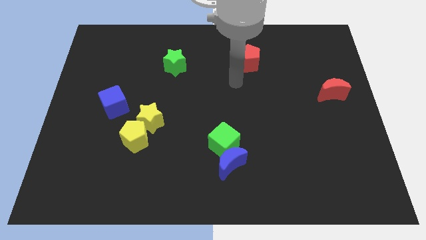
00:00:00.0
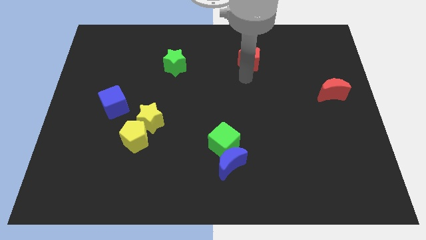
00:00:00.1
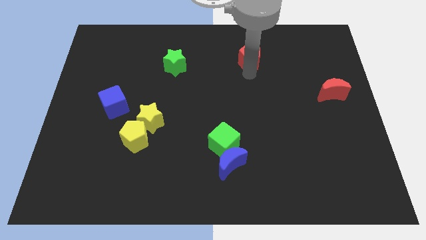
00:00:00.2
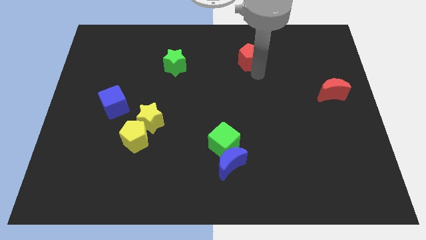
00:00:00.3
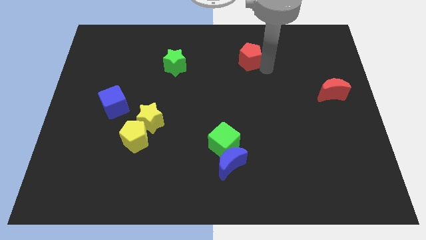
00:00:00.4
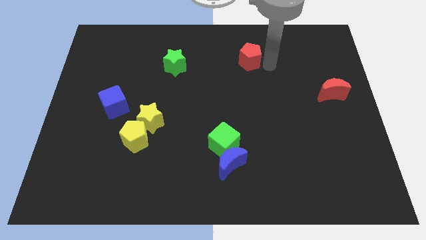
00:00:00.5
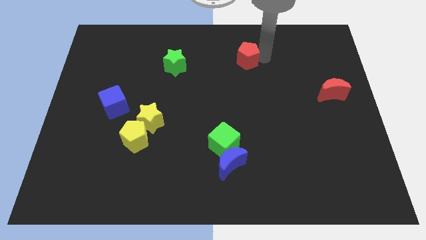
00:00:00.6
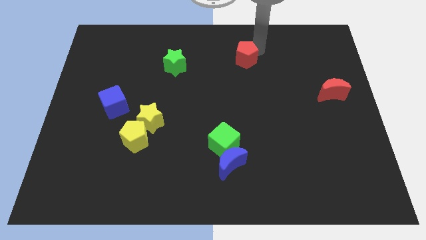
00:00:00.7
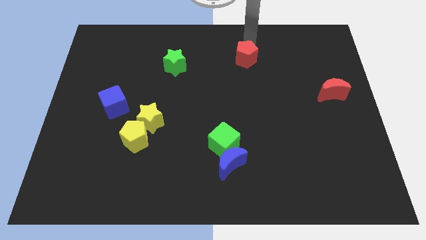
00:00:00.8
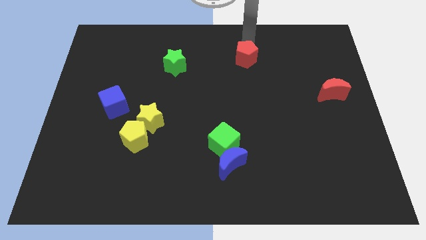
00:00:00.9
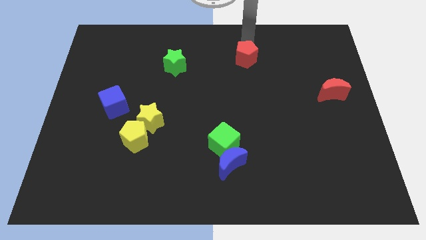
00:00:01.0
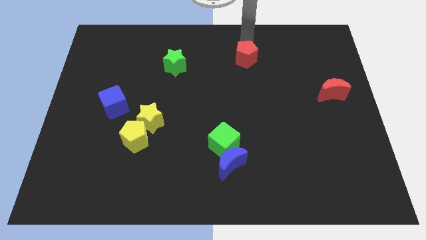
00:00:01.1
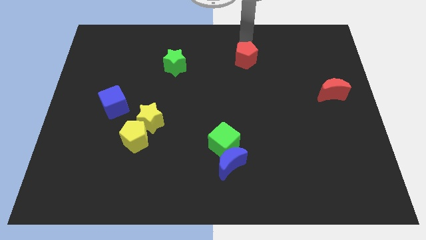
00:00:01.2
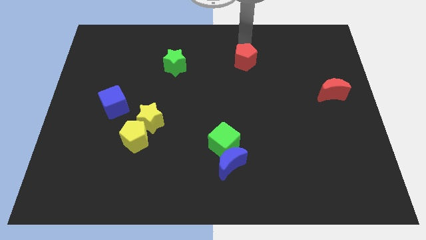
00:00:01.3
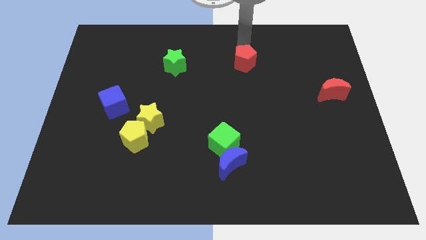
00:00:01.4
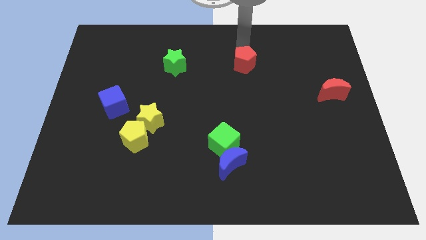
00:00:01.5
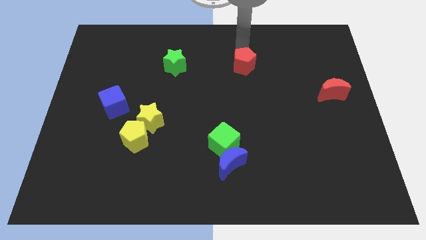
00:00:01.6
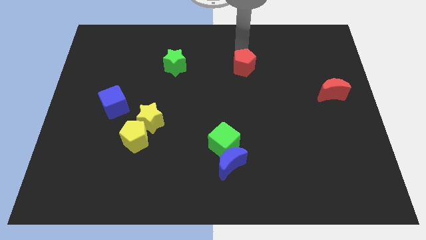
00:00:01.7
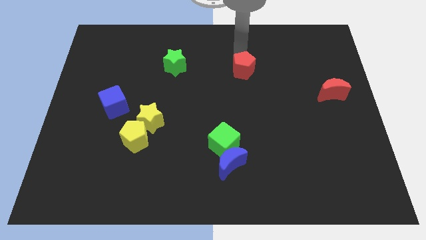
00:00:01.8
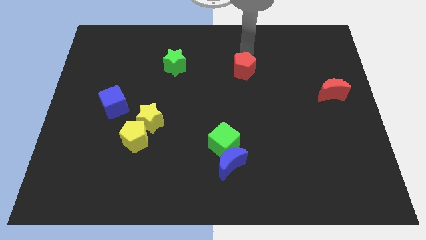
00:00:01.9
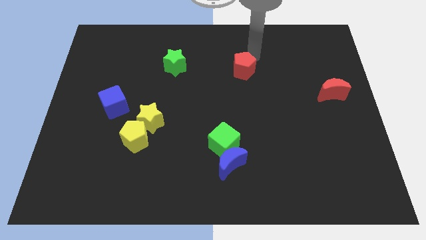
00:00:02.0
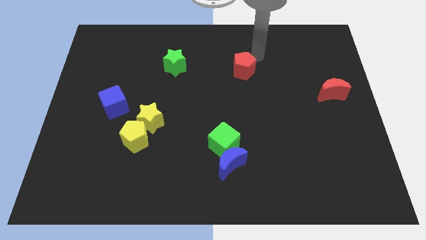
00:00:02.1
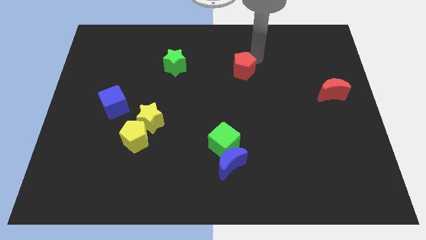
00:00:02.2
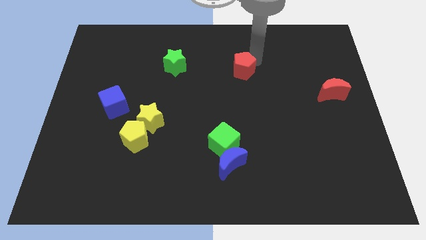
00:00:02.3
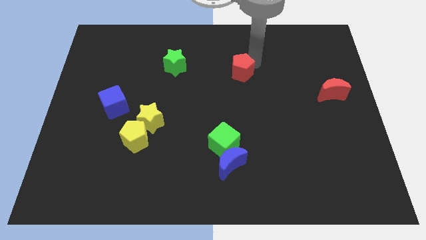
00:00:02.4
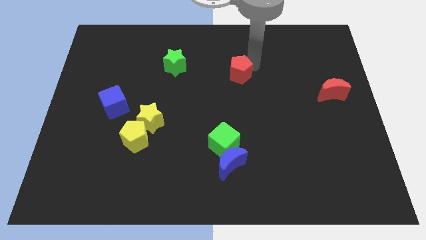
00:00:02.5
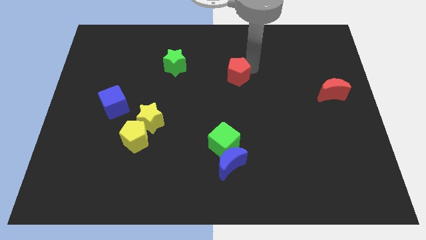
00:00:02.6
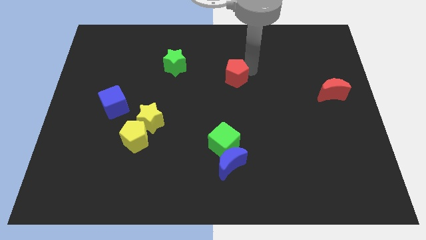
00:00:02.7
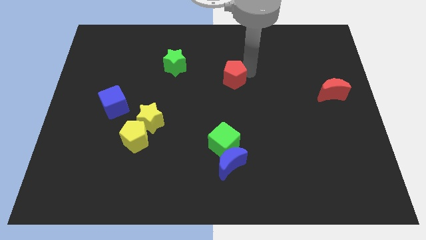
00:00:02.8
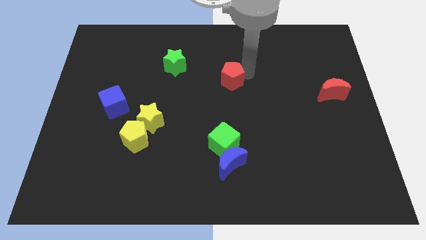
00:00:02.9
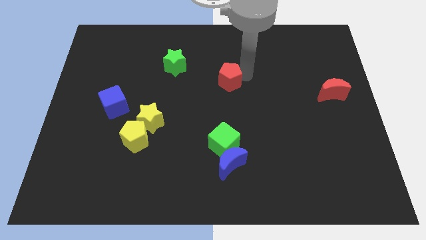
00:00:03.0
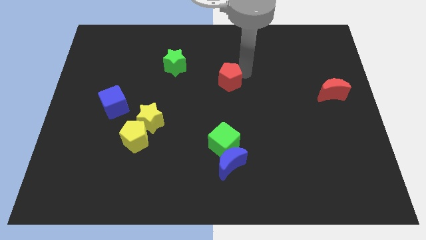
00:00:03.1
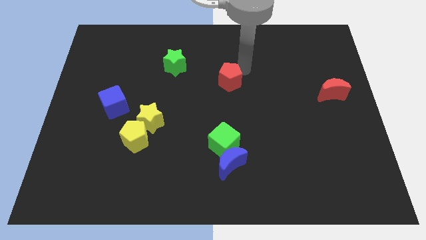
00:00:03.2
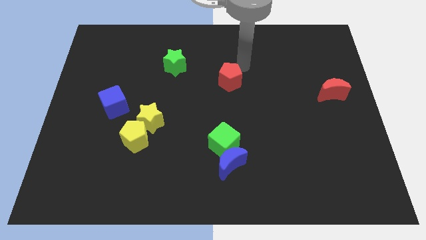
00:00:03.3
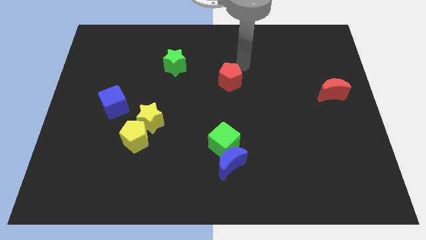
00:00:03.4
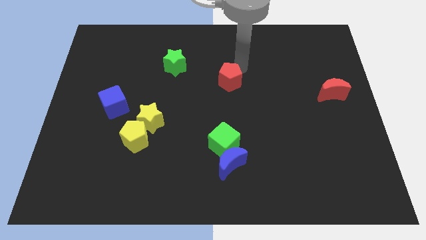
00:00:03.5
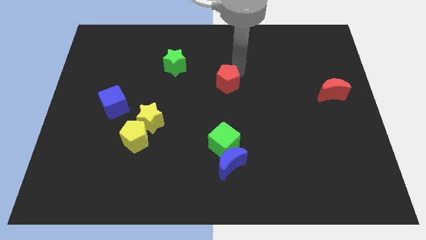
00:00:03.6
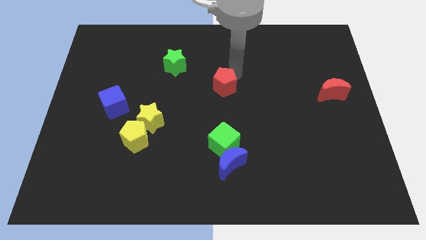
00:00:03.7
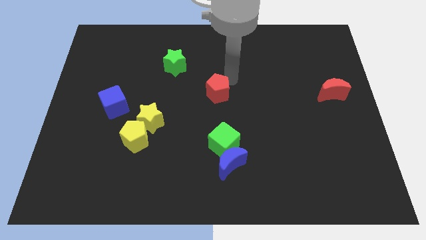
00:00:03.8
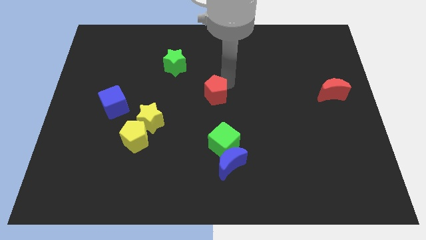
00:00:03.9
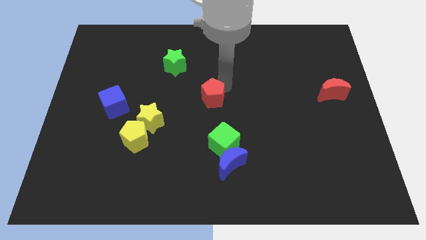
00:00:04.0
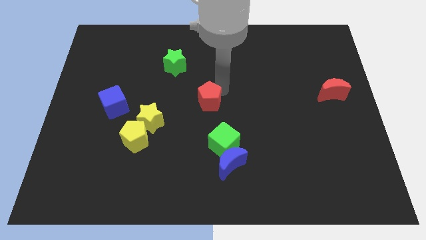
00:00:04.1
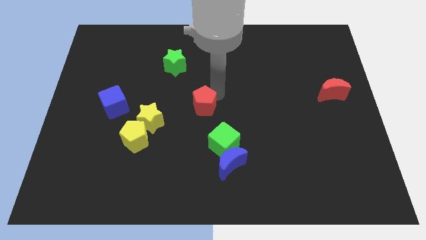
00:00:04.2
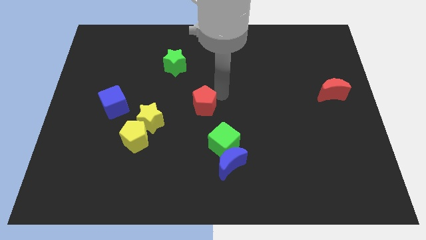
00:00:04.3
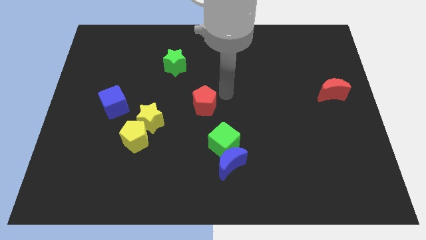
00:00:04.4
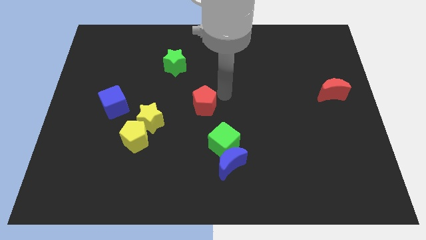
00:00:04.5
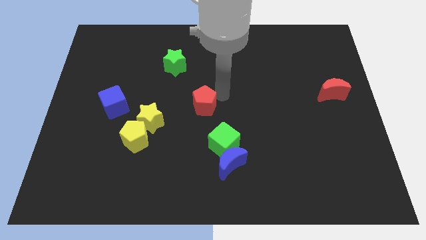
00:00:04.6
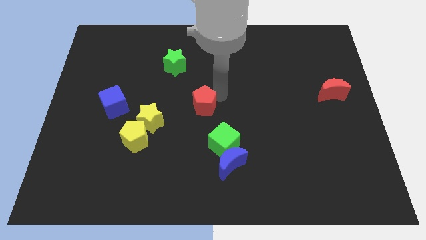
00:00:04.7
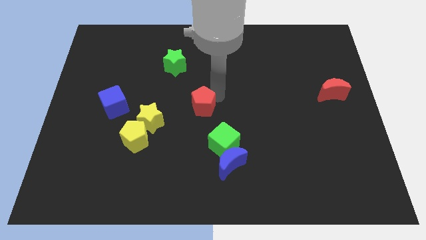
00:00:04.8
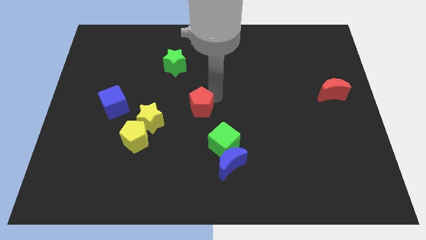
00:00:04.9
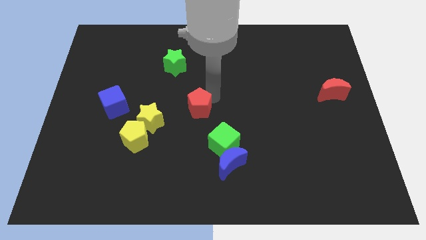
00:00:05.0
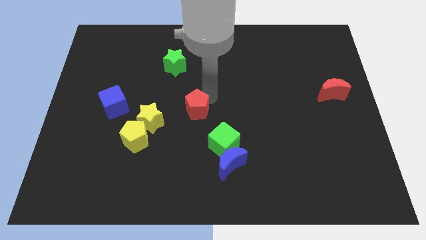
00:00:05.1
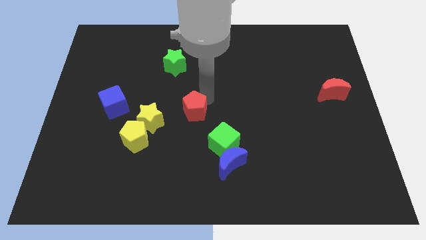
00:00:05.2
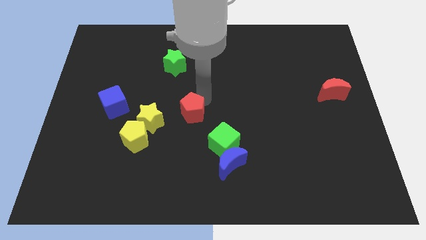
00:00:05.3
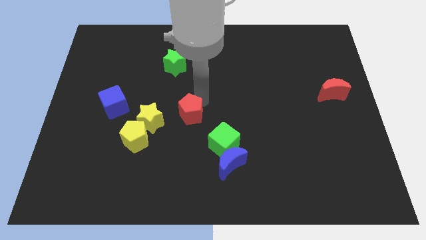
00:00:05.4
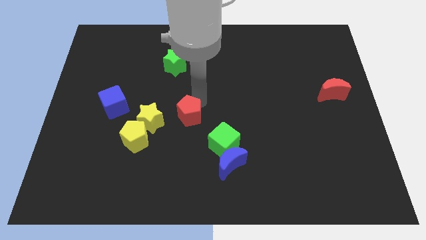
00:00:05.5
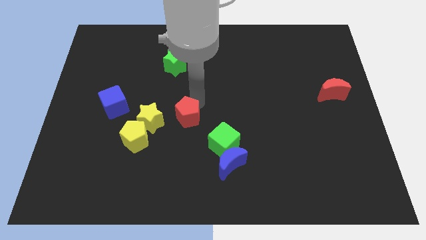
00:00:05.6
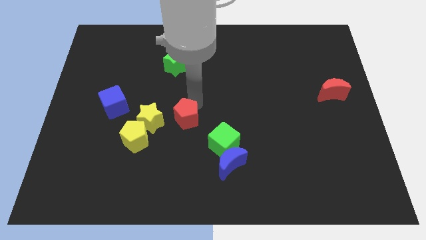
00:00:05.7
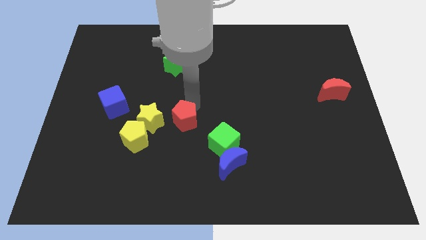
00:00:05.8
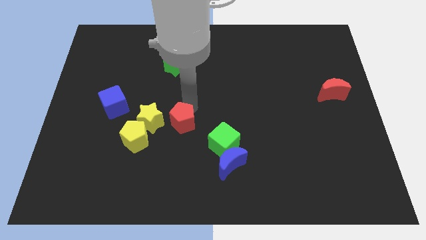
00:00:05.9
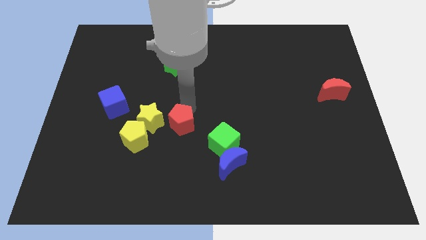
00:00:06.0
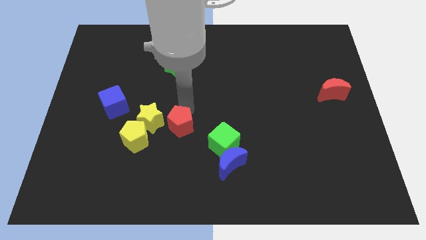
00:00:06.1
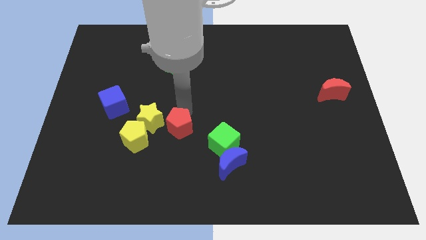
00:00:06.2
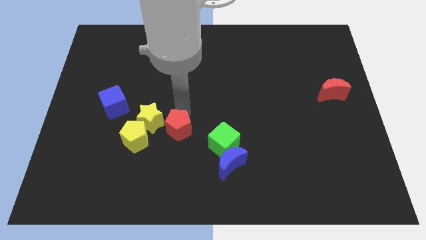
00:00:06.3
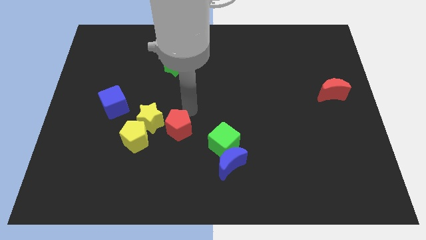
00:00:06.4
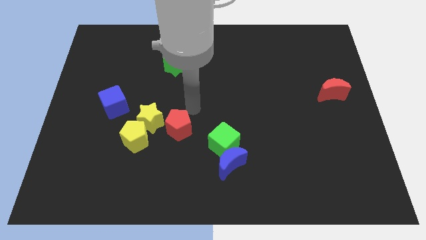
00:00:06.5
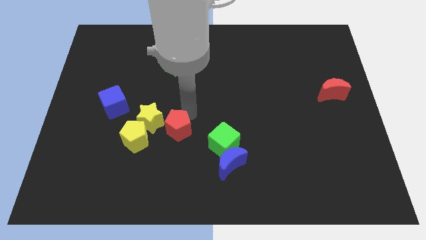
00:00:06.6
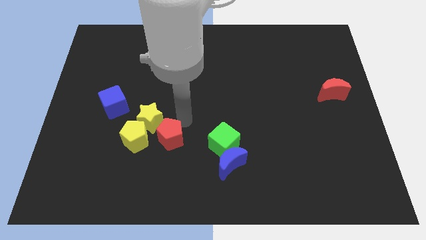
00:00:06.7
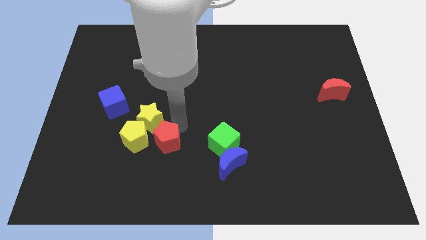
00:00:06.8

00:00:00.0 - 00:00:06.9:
put the red pentagon diagonally down and to the right of the yellow pentagon
